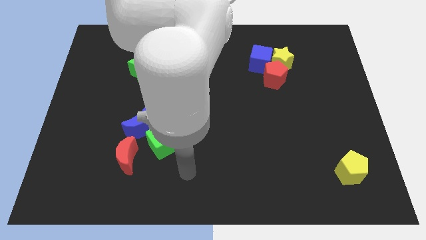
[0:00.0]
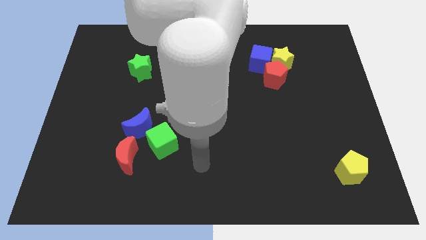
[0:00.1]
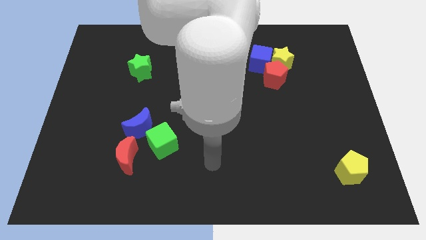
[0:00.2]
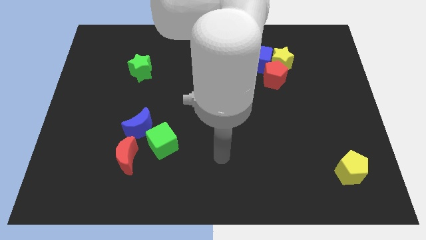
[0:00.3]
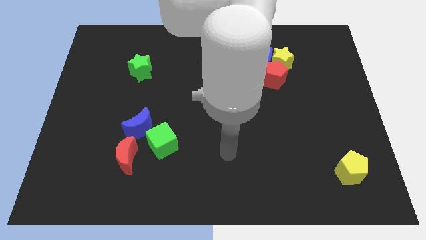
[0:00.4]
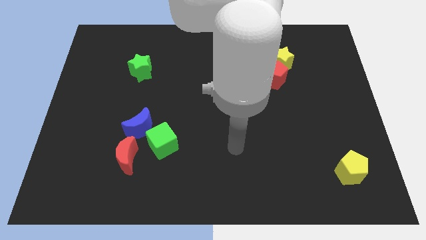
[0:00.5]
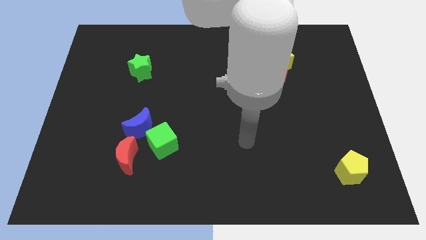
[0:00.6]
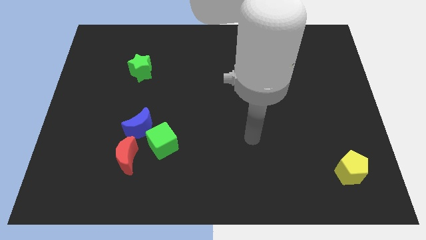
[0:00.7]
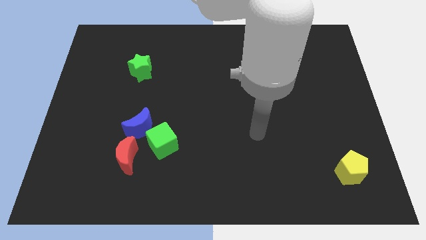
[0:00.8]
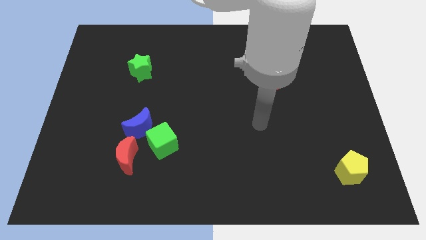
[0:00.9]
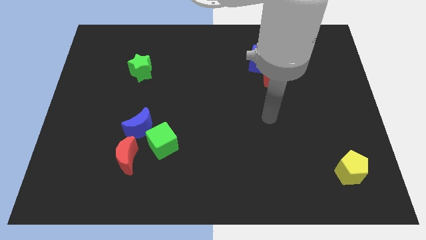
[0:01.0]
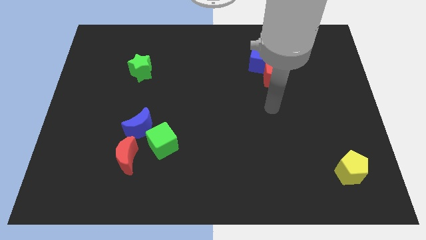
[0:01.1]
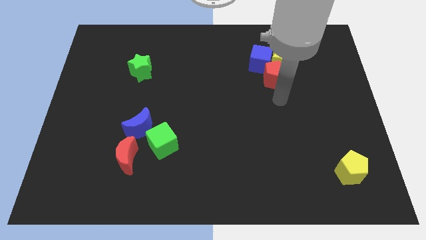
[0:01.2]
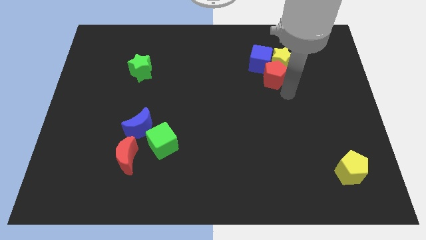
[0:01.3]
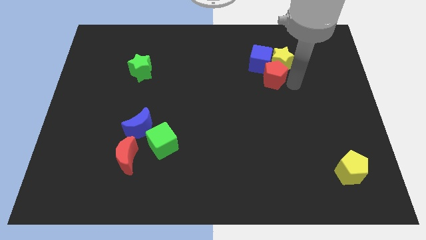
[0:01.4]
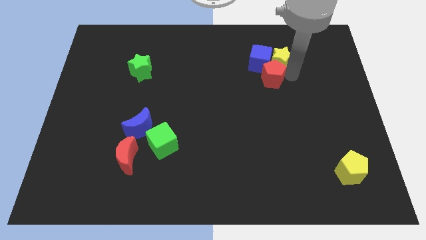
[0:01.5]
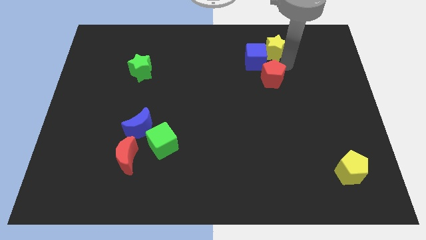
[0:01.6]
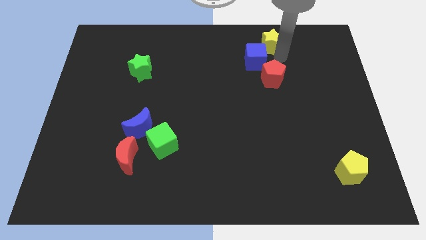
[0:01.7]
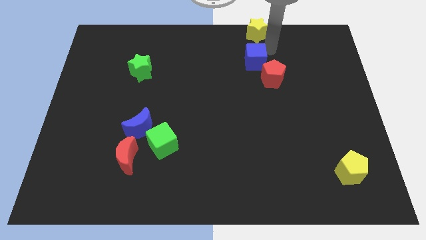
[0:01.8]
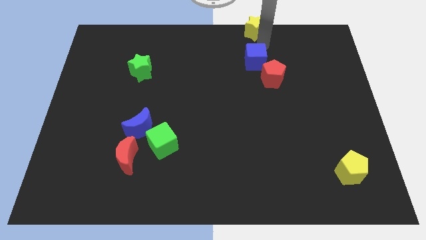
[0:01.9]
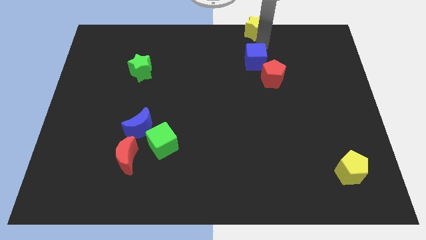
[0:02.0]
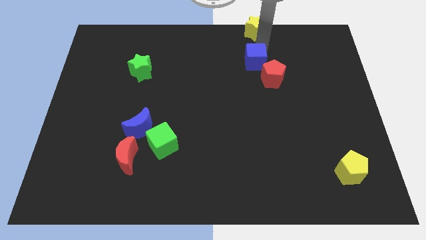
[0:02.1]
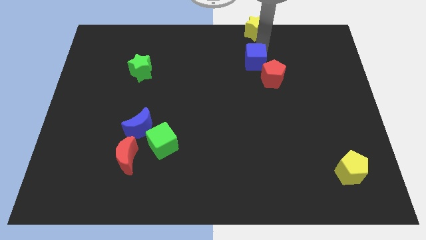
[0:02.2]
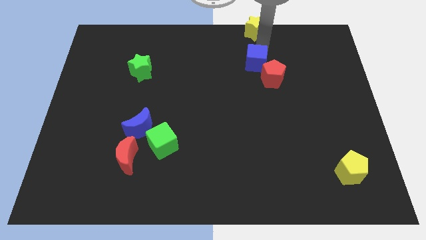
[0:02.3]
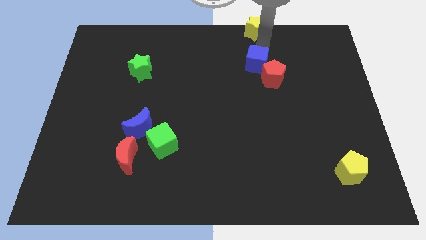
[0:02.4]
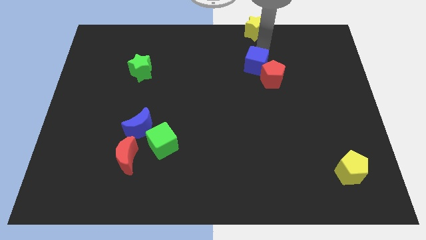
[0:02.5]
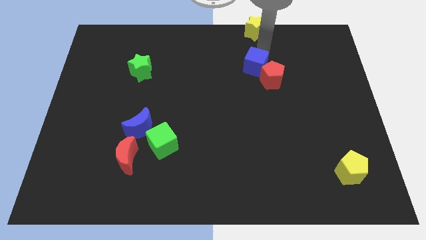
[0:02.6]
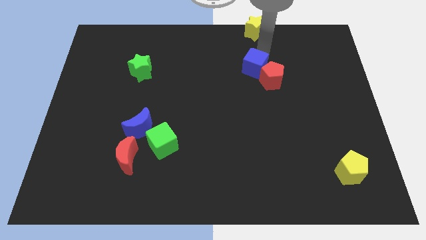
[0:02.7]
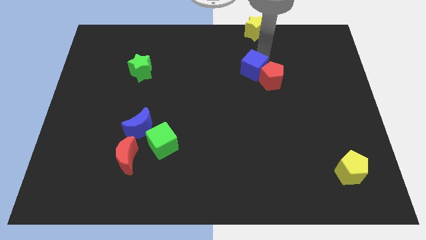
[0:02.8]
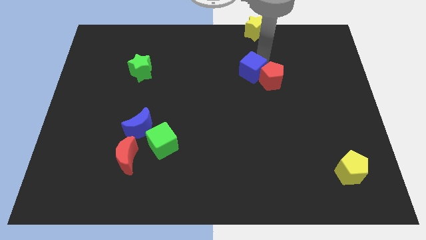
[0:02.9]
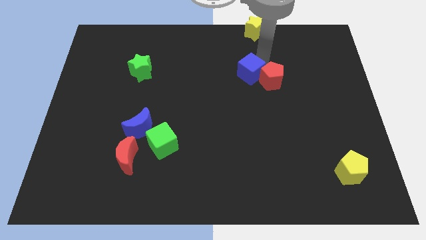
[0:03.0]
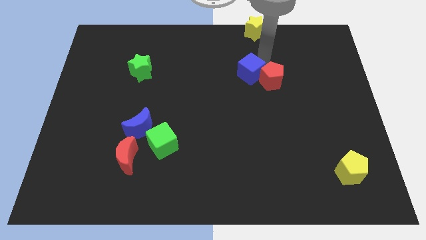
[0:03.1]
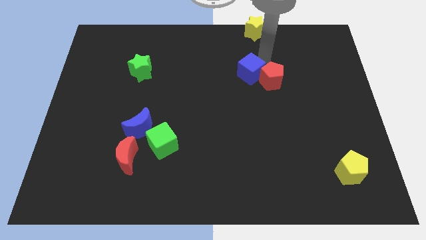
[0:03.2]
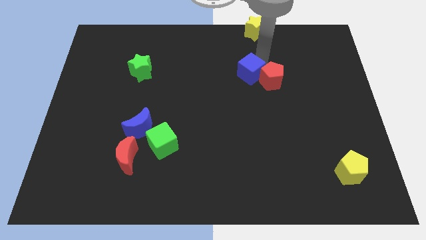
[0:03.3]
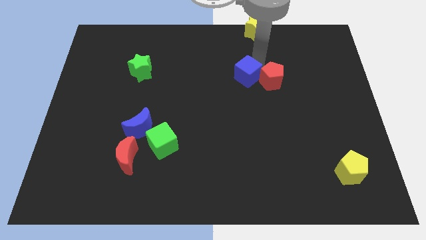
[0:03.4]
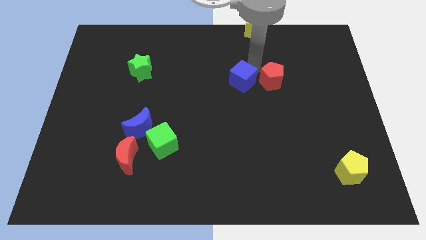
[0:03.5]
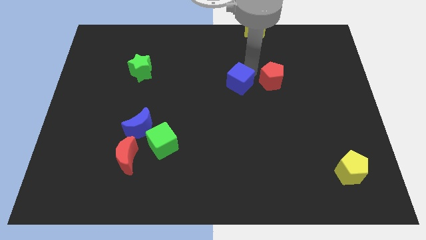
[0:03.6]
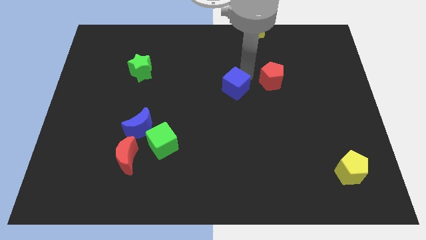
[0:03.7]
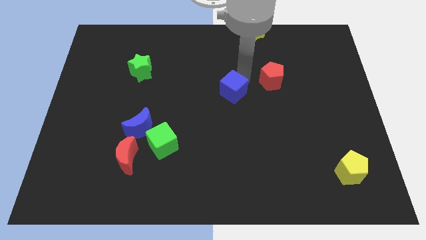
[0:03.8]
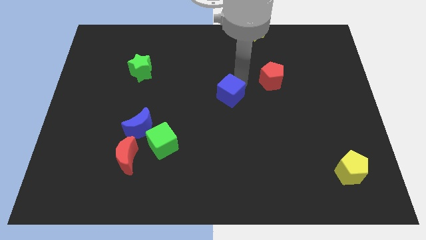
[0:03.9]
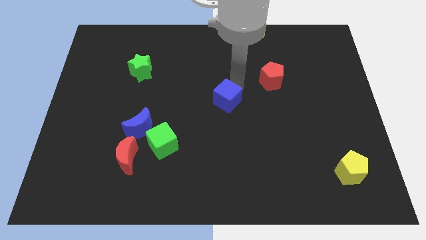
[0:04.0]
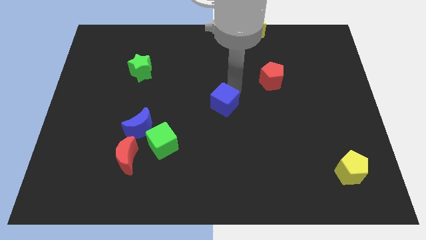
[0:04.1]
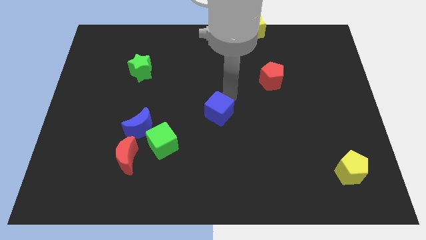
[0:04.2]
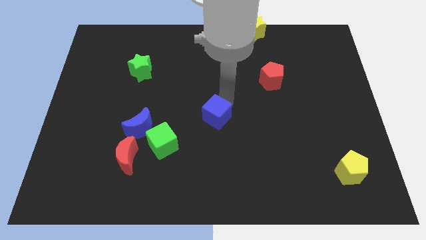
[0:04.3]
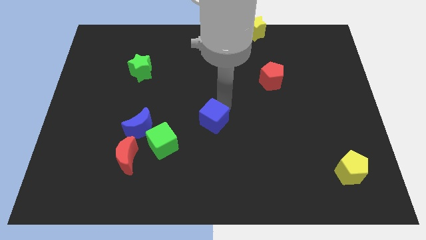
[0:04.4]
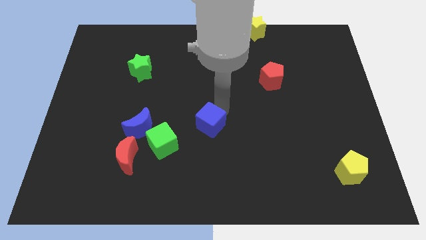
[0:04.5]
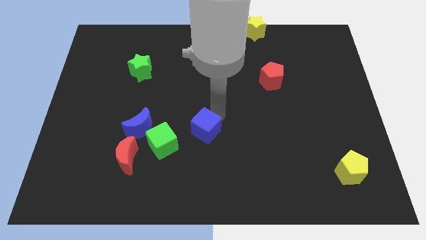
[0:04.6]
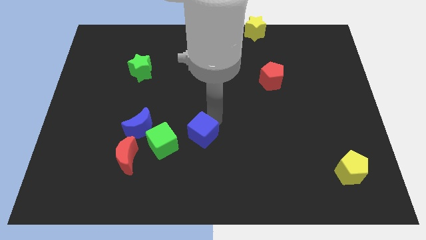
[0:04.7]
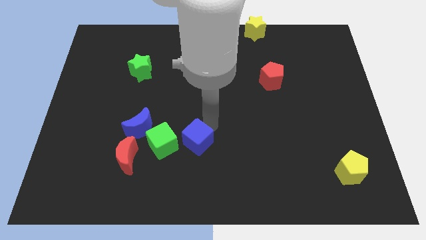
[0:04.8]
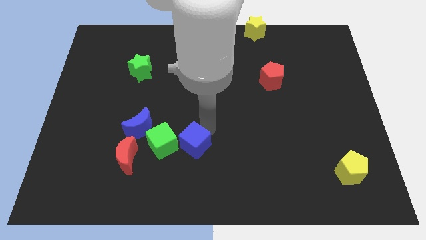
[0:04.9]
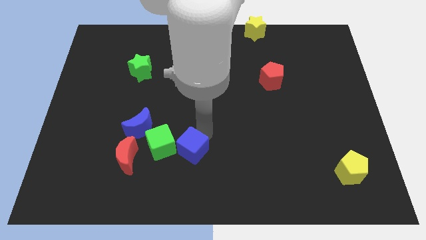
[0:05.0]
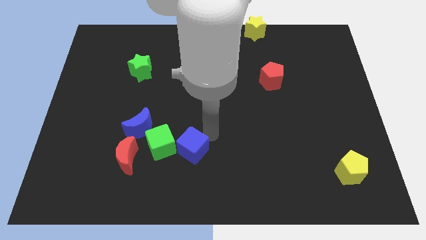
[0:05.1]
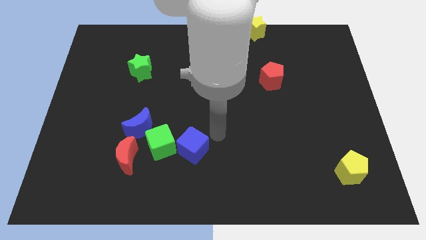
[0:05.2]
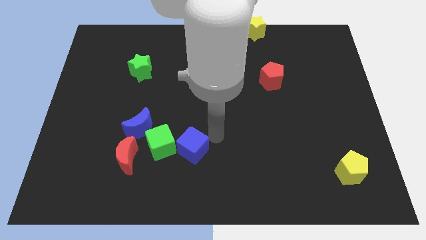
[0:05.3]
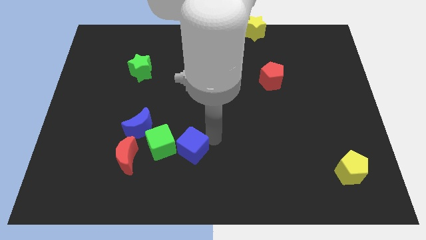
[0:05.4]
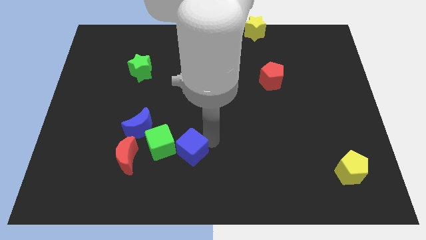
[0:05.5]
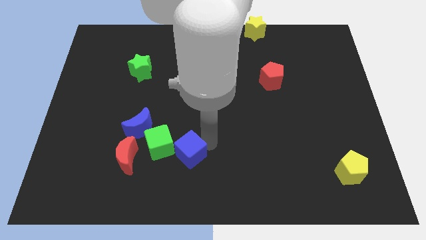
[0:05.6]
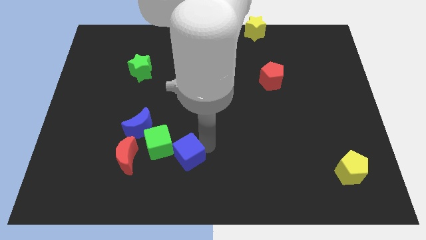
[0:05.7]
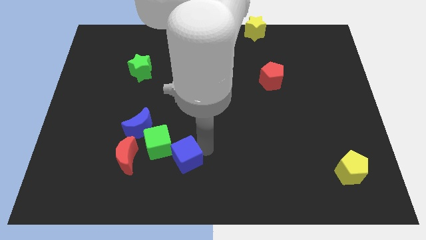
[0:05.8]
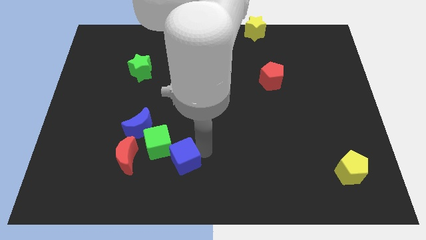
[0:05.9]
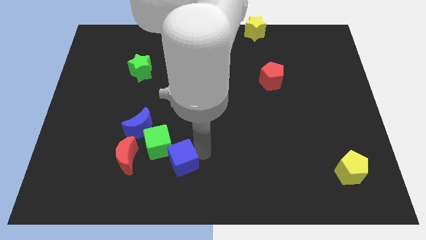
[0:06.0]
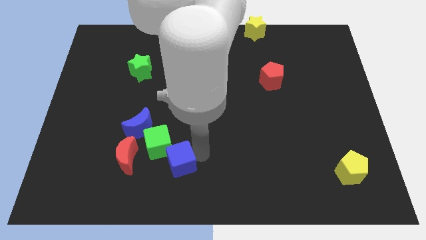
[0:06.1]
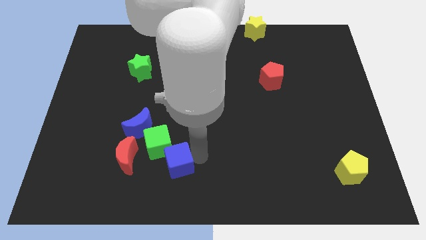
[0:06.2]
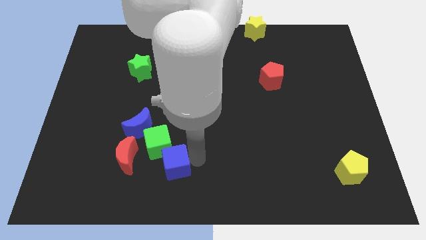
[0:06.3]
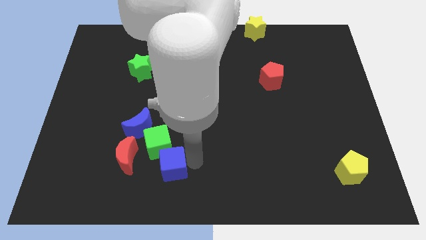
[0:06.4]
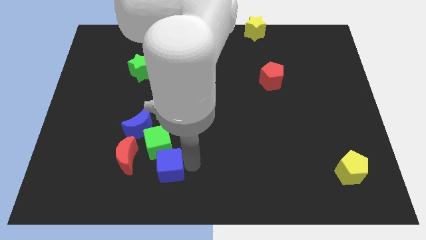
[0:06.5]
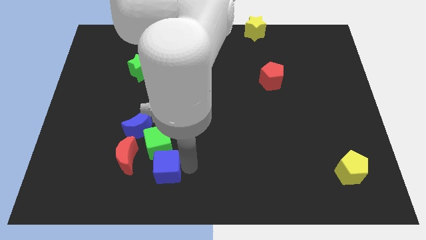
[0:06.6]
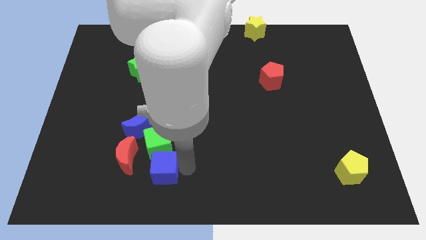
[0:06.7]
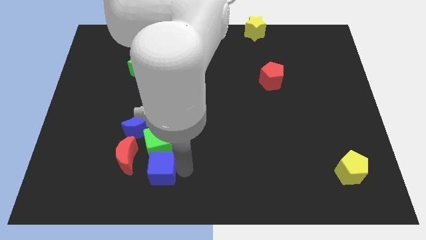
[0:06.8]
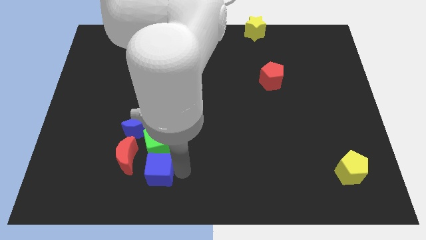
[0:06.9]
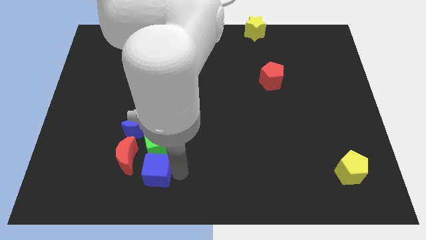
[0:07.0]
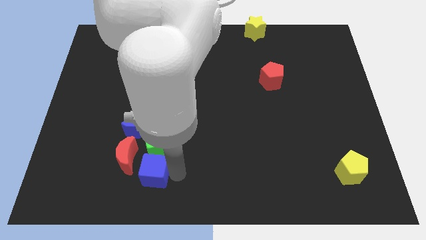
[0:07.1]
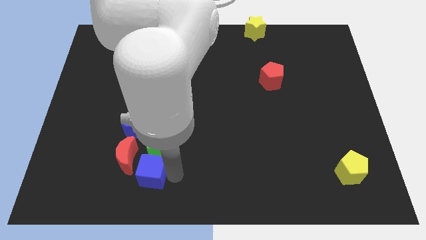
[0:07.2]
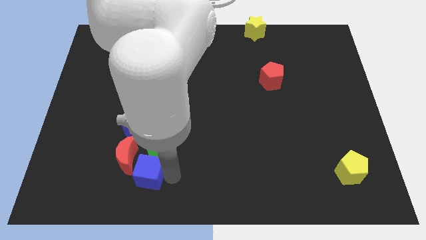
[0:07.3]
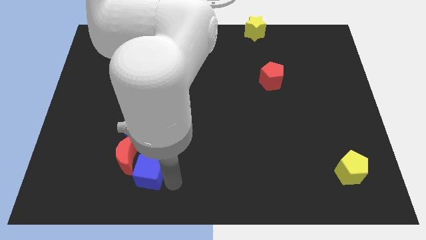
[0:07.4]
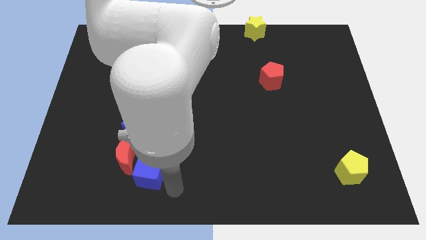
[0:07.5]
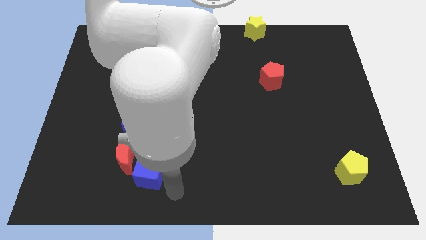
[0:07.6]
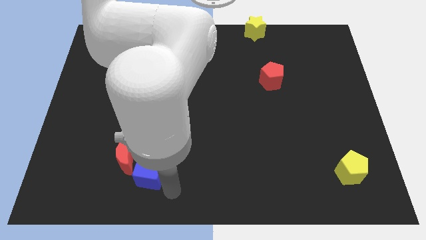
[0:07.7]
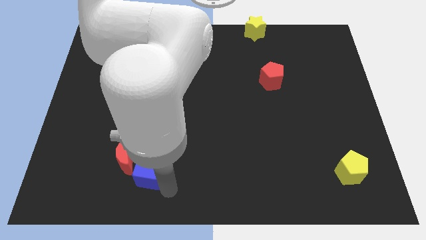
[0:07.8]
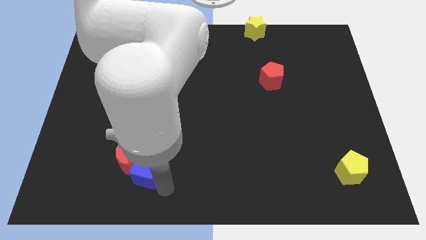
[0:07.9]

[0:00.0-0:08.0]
slide the blue cube to the red moon
